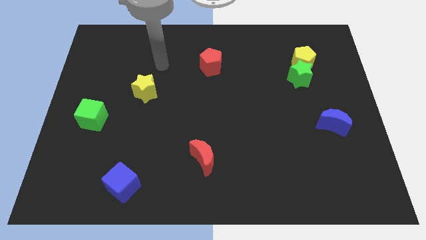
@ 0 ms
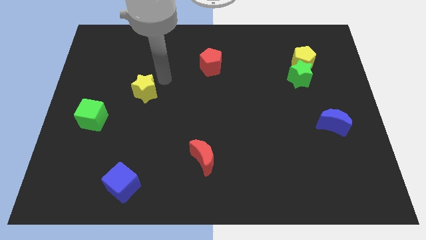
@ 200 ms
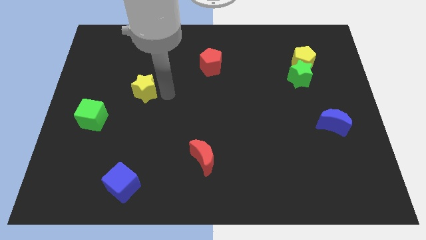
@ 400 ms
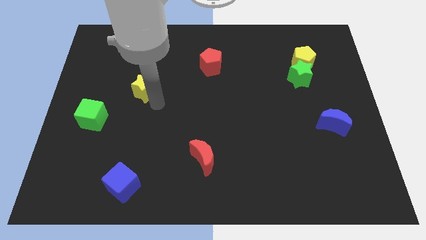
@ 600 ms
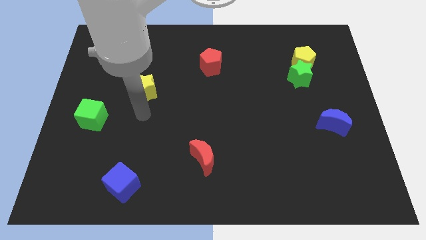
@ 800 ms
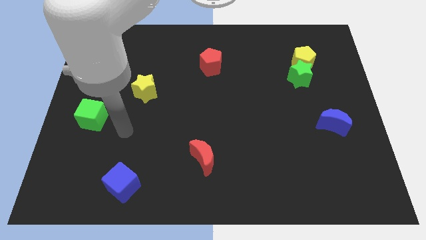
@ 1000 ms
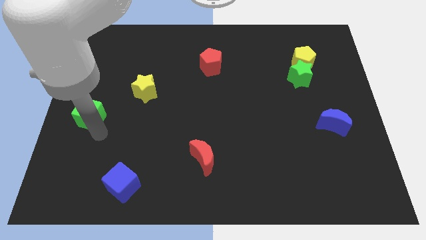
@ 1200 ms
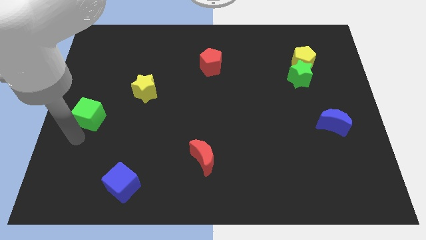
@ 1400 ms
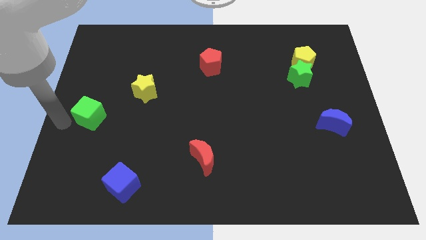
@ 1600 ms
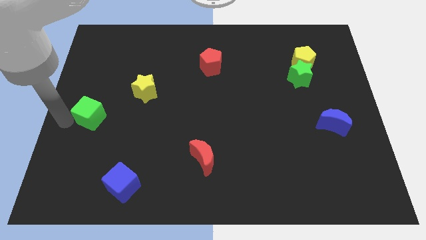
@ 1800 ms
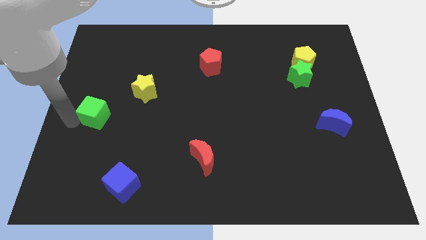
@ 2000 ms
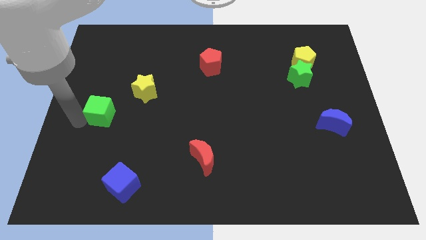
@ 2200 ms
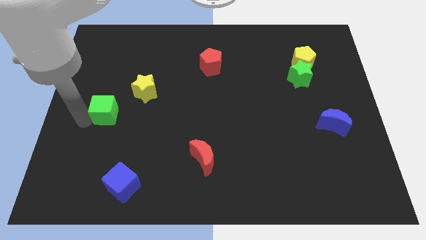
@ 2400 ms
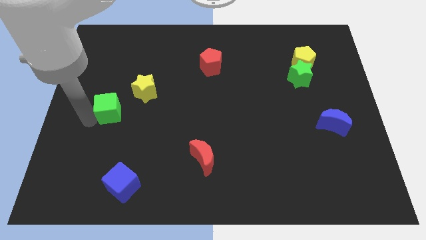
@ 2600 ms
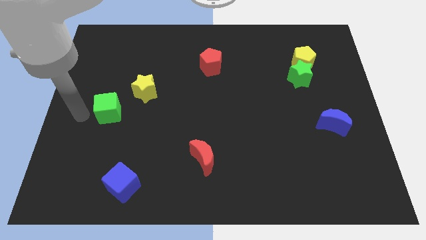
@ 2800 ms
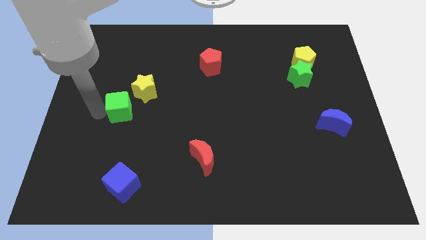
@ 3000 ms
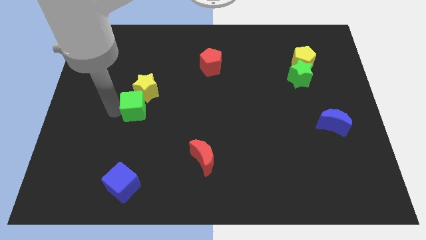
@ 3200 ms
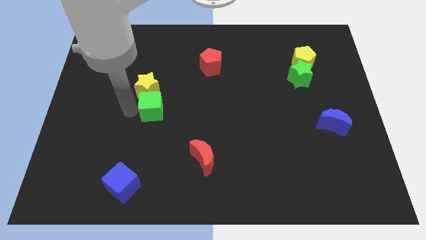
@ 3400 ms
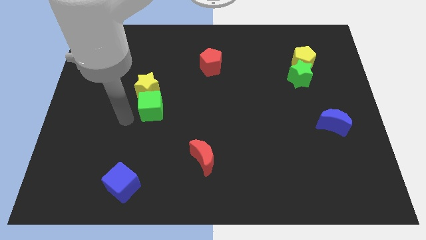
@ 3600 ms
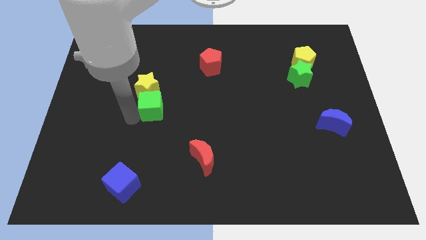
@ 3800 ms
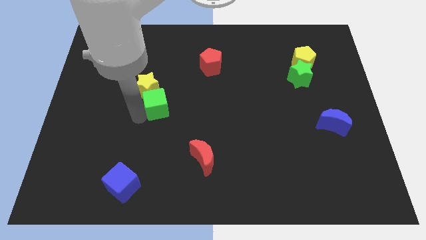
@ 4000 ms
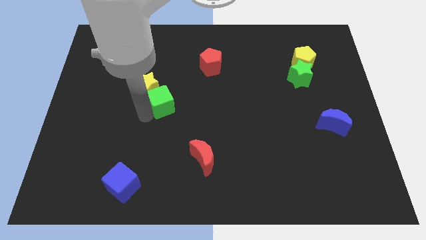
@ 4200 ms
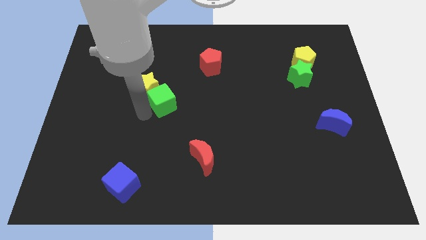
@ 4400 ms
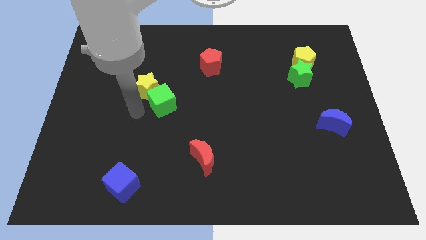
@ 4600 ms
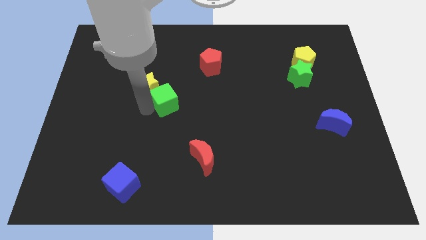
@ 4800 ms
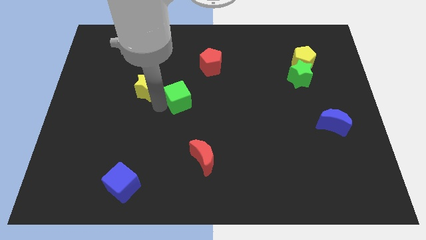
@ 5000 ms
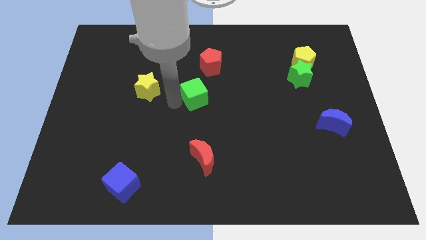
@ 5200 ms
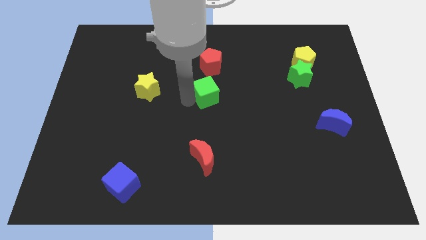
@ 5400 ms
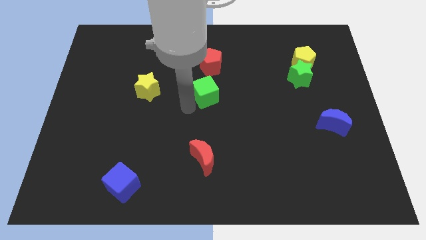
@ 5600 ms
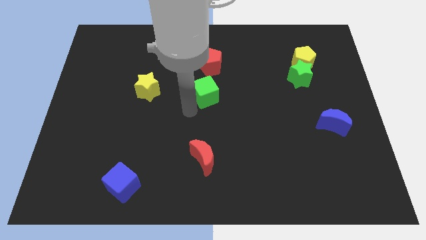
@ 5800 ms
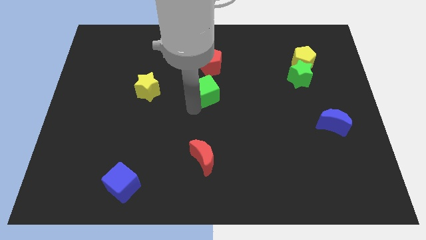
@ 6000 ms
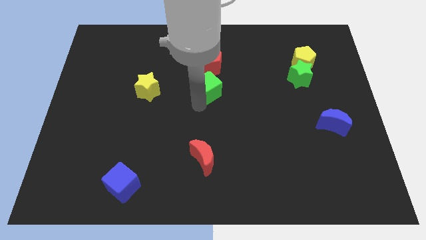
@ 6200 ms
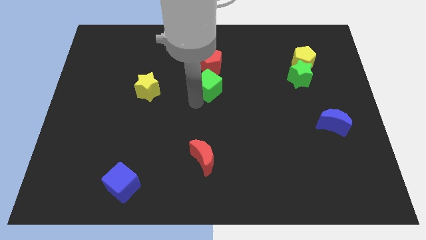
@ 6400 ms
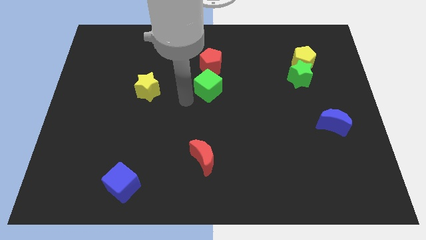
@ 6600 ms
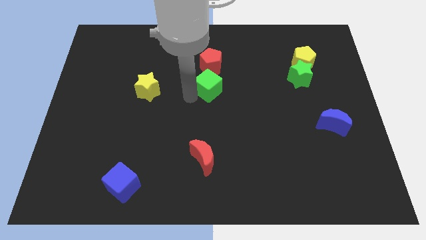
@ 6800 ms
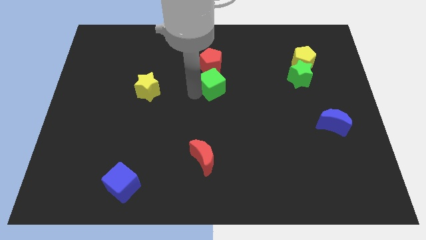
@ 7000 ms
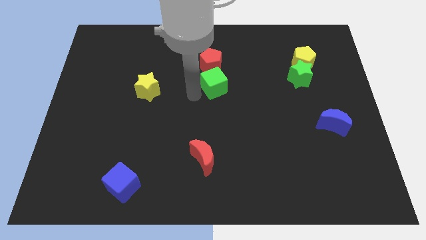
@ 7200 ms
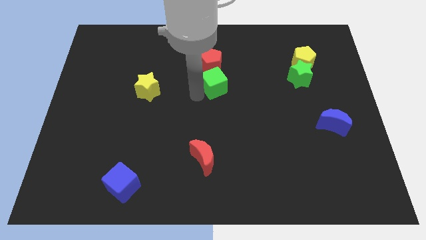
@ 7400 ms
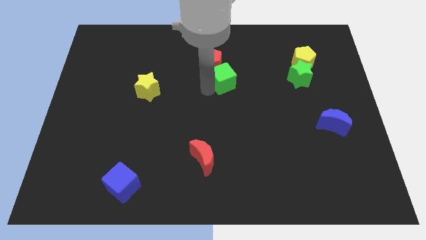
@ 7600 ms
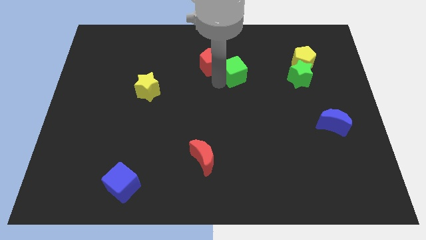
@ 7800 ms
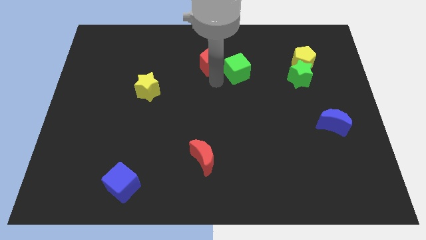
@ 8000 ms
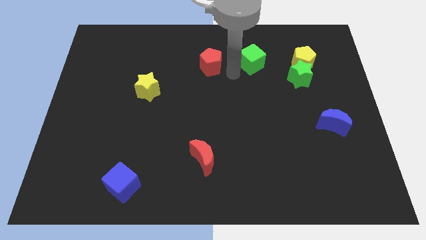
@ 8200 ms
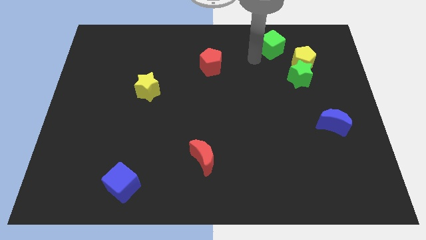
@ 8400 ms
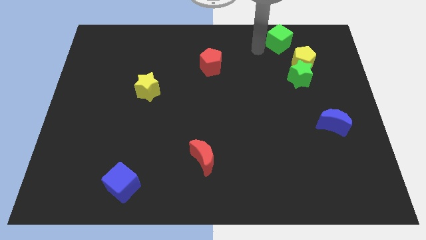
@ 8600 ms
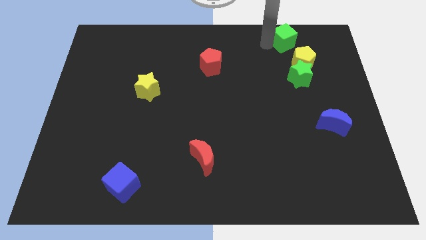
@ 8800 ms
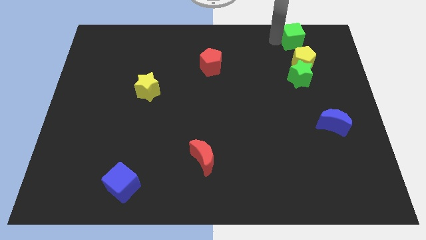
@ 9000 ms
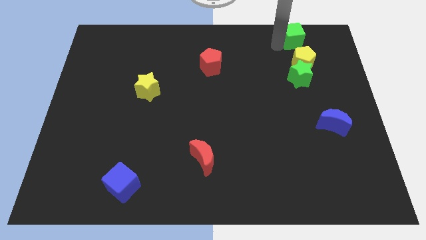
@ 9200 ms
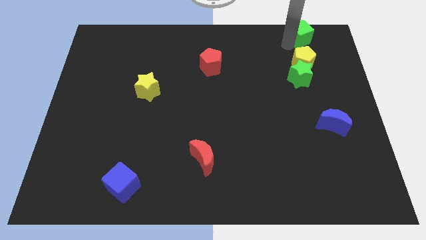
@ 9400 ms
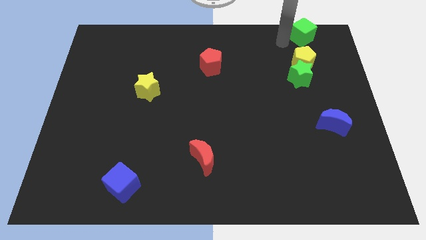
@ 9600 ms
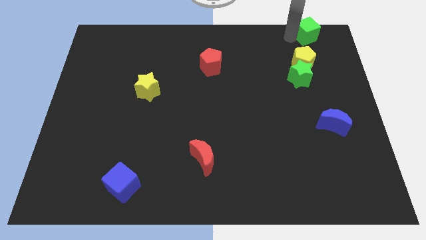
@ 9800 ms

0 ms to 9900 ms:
slide the green cube to the top right of the board
